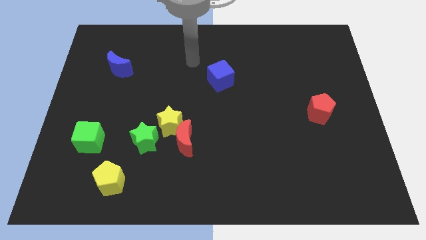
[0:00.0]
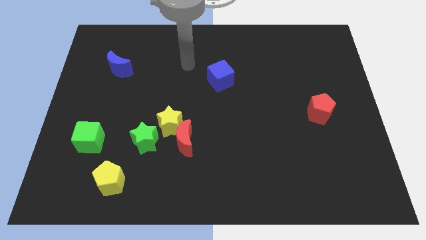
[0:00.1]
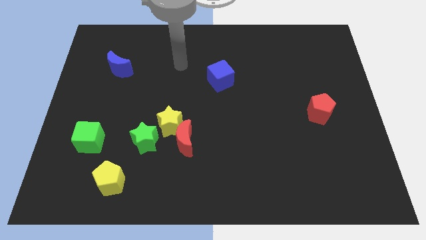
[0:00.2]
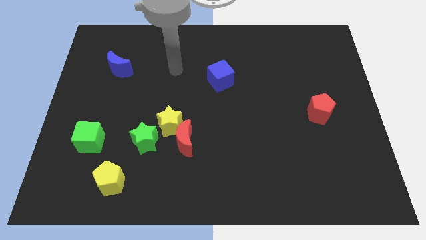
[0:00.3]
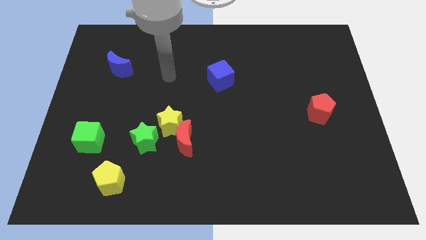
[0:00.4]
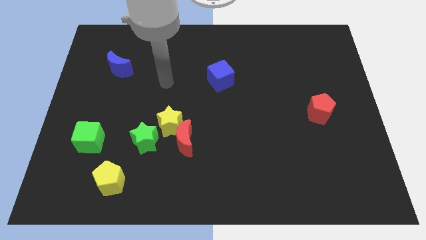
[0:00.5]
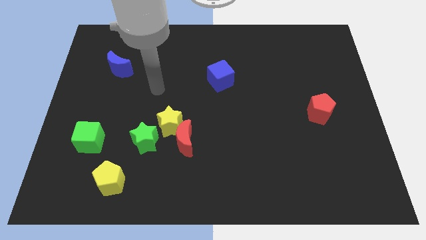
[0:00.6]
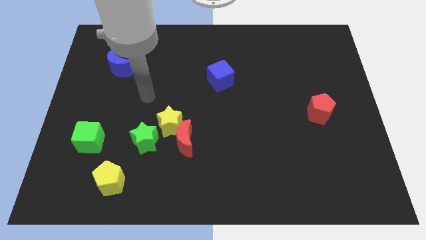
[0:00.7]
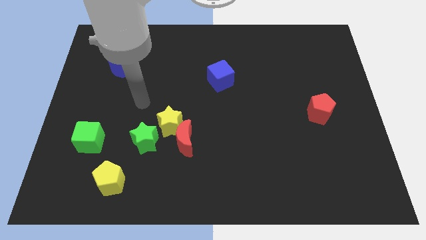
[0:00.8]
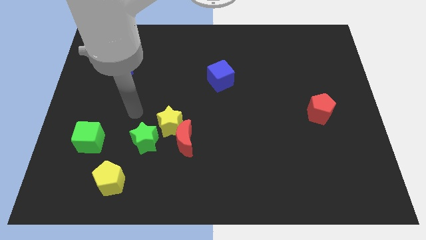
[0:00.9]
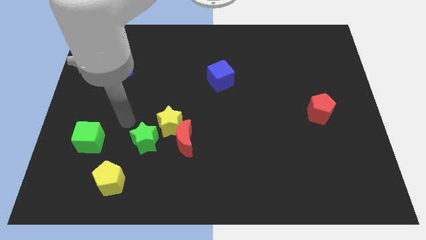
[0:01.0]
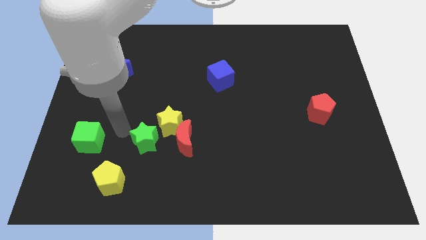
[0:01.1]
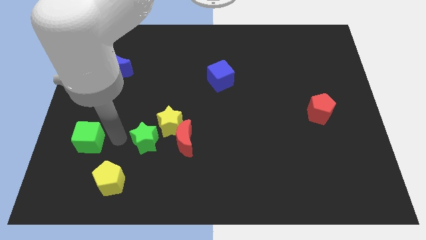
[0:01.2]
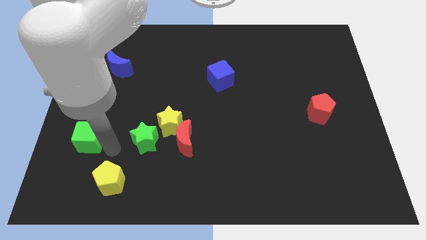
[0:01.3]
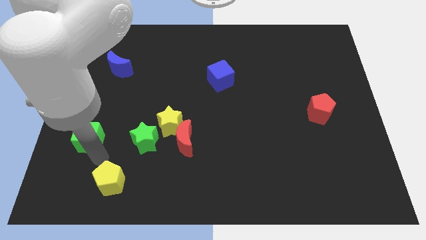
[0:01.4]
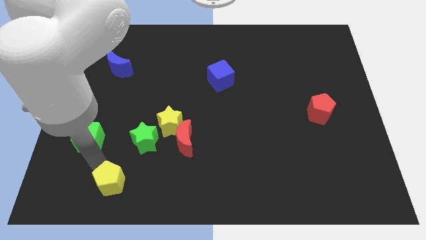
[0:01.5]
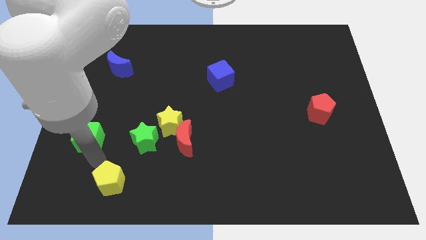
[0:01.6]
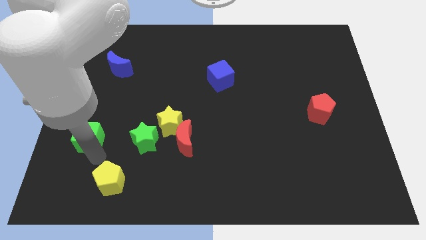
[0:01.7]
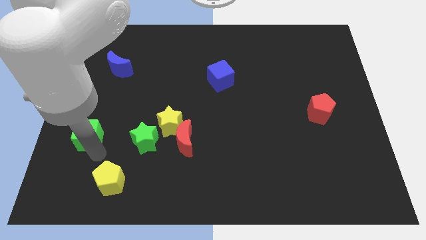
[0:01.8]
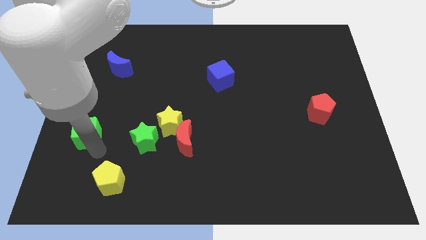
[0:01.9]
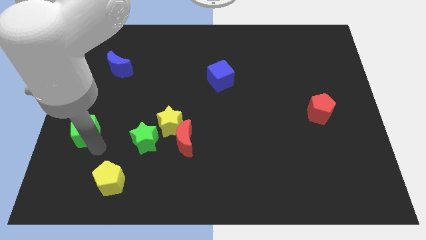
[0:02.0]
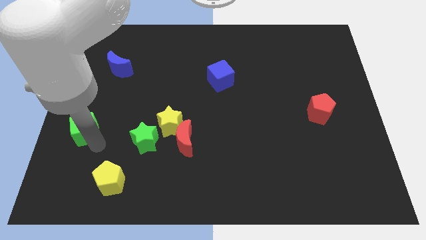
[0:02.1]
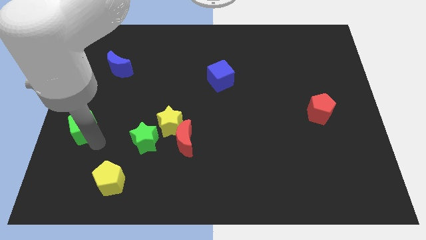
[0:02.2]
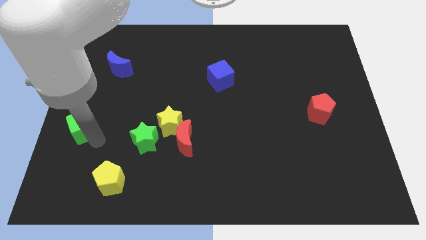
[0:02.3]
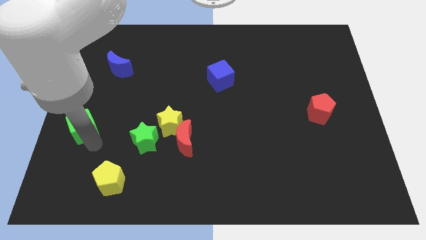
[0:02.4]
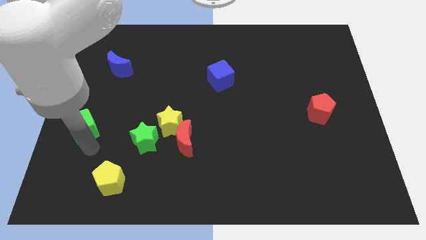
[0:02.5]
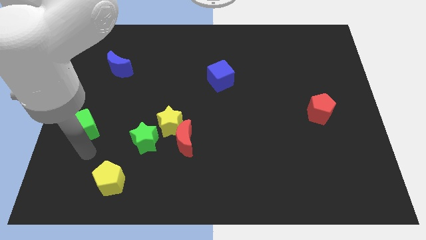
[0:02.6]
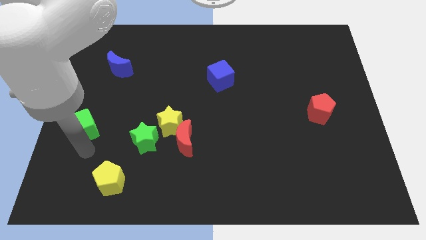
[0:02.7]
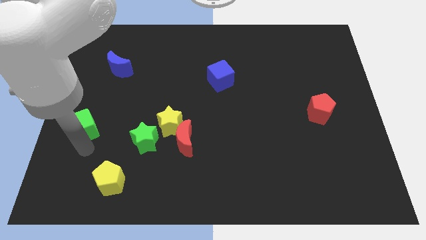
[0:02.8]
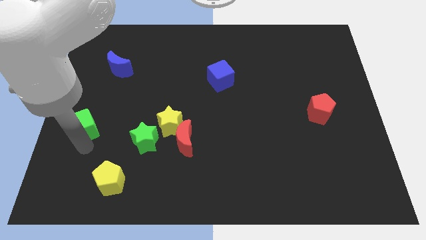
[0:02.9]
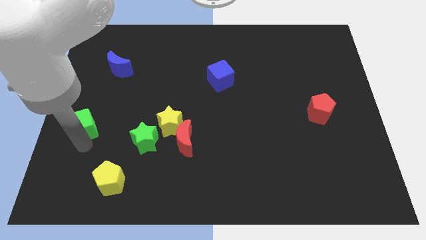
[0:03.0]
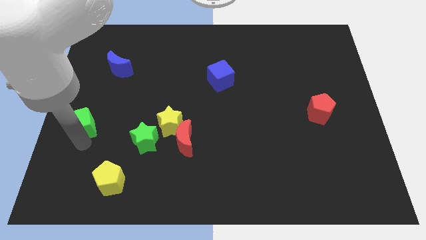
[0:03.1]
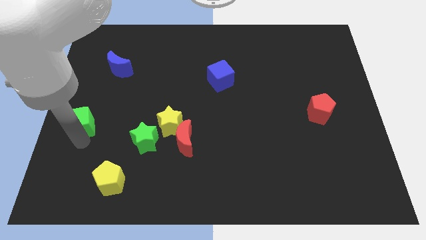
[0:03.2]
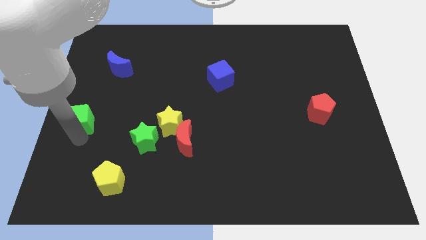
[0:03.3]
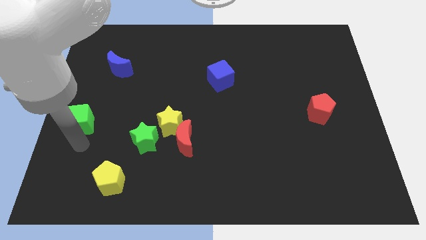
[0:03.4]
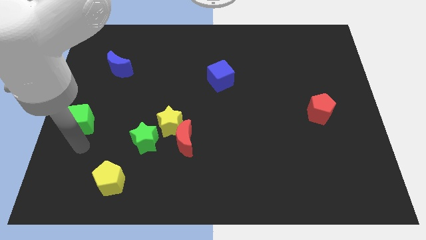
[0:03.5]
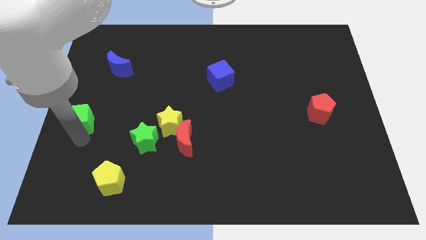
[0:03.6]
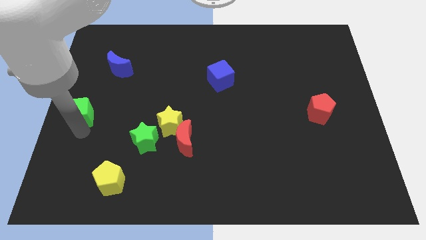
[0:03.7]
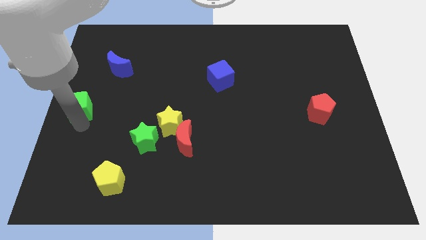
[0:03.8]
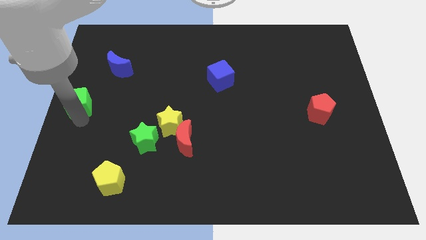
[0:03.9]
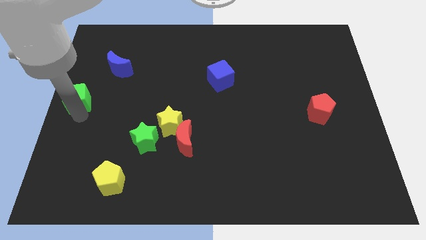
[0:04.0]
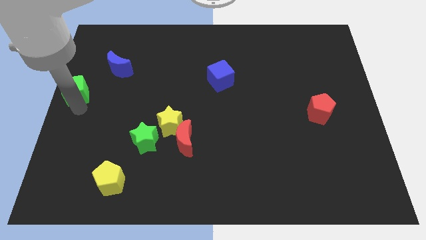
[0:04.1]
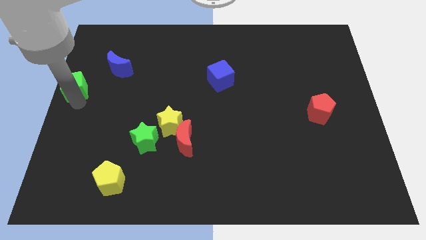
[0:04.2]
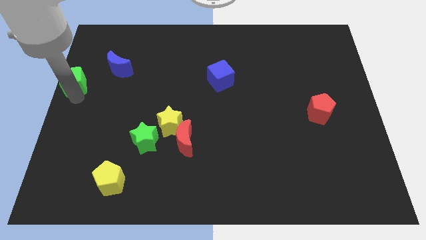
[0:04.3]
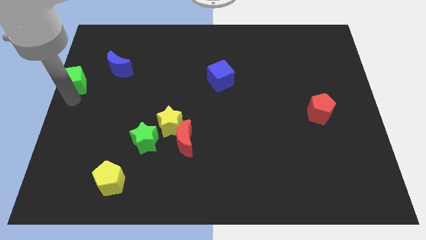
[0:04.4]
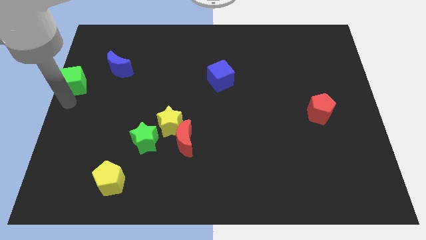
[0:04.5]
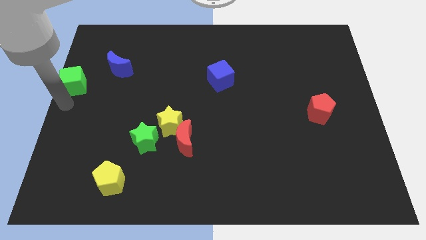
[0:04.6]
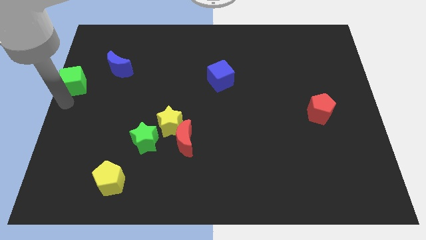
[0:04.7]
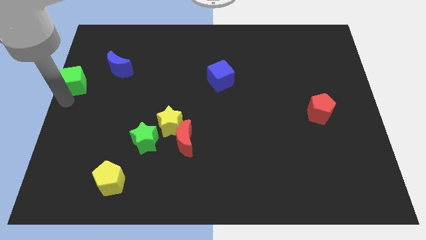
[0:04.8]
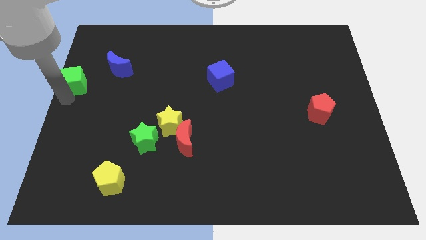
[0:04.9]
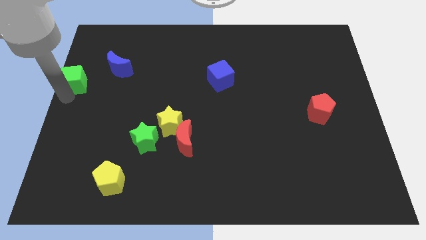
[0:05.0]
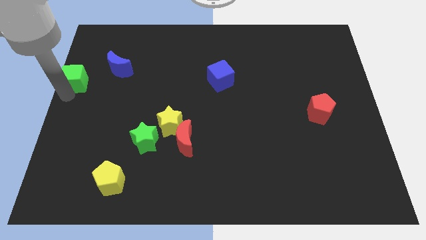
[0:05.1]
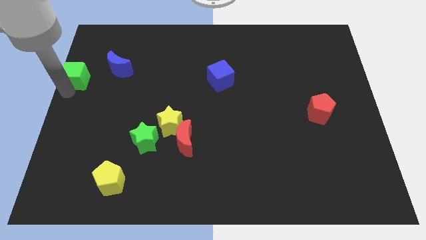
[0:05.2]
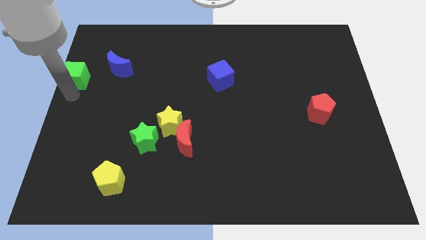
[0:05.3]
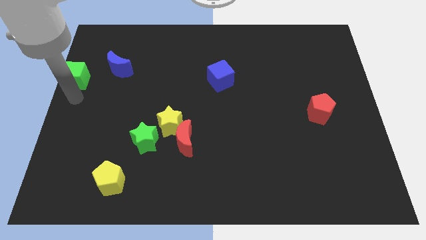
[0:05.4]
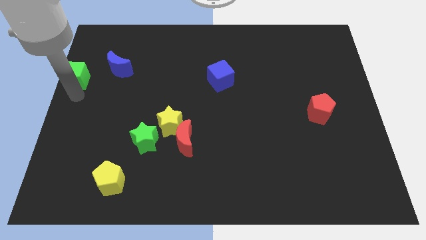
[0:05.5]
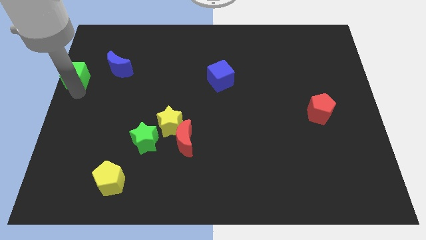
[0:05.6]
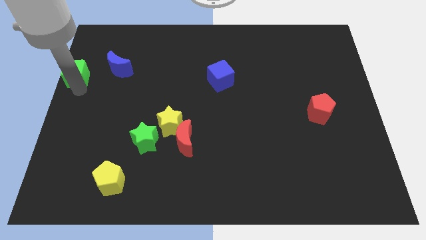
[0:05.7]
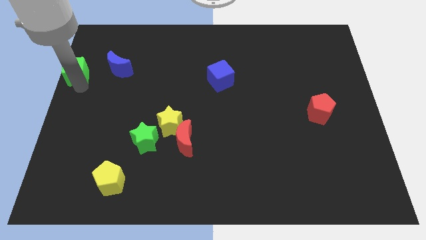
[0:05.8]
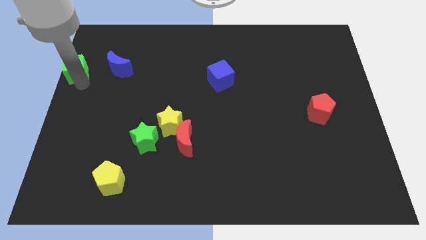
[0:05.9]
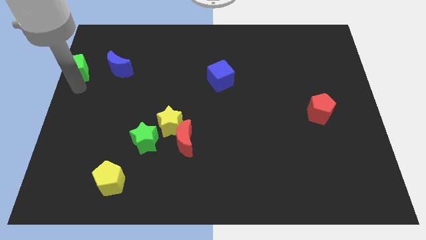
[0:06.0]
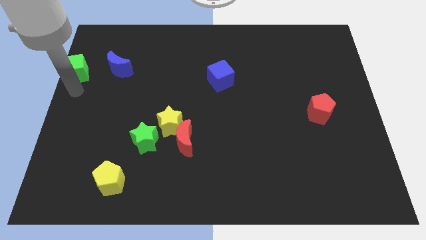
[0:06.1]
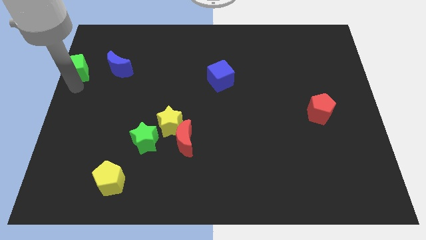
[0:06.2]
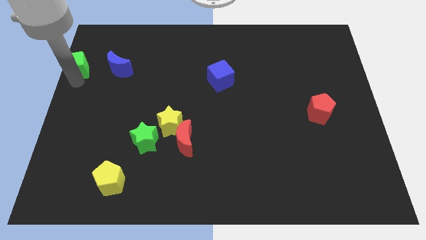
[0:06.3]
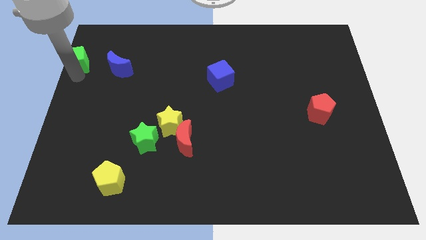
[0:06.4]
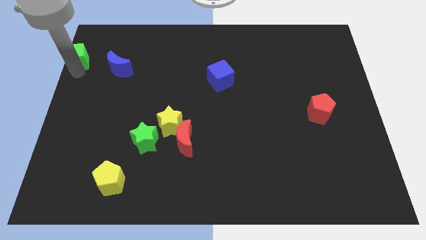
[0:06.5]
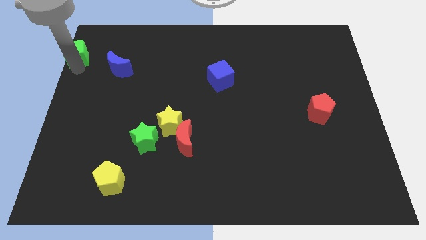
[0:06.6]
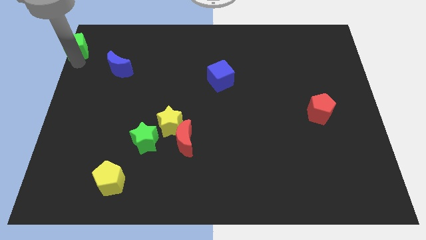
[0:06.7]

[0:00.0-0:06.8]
push the green cube to the top left corner

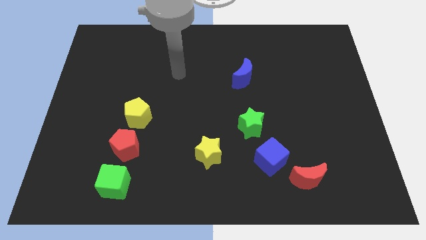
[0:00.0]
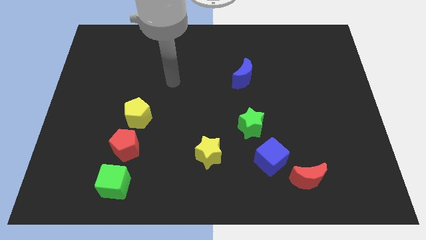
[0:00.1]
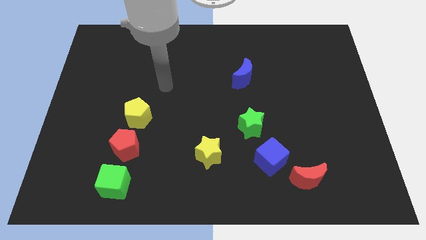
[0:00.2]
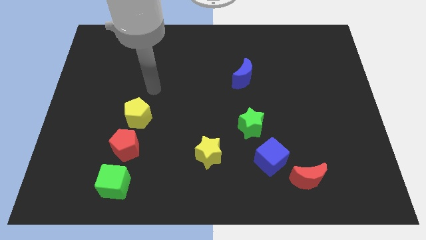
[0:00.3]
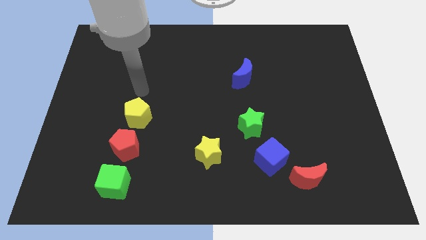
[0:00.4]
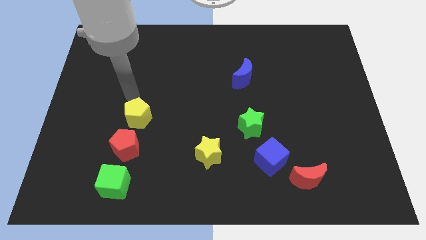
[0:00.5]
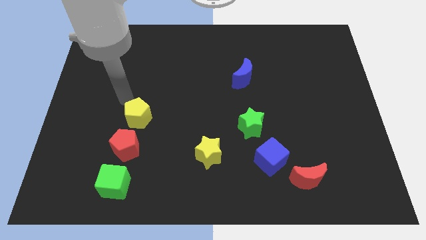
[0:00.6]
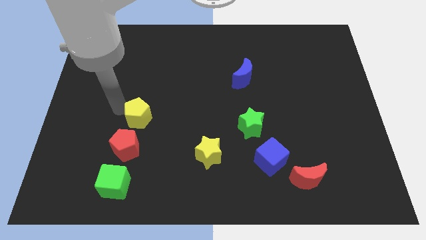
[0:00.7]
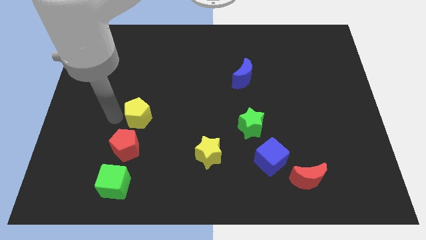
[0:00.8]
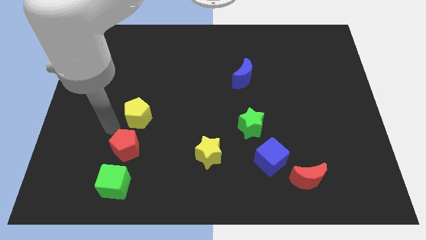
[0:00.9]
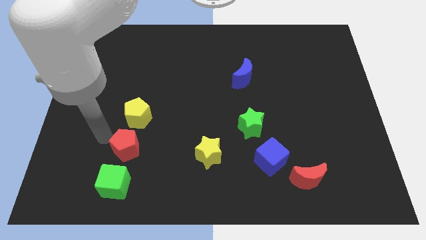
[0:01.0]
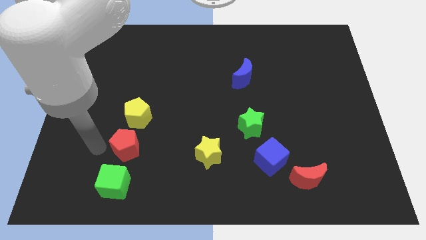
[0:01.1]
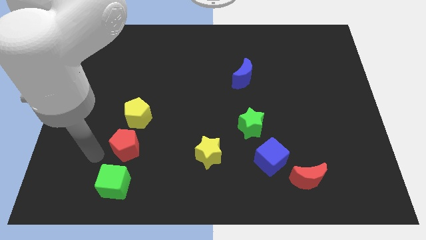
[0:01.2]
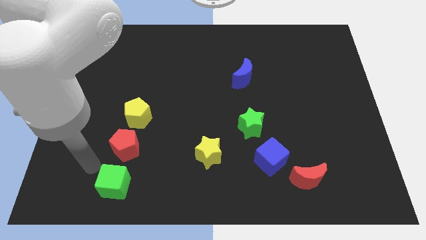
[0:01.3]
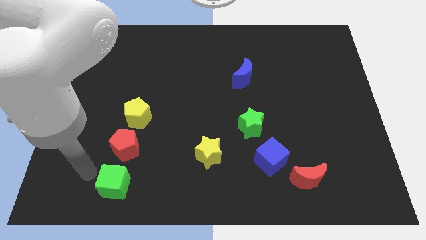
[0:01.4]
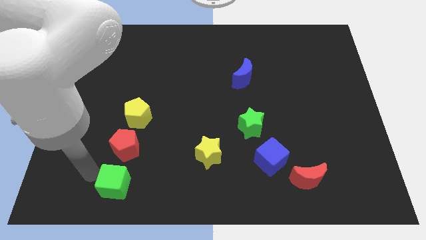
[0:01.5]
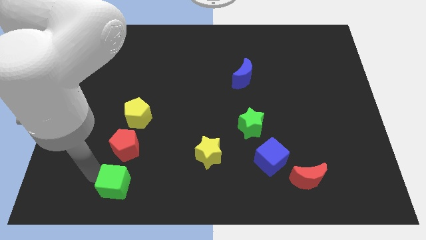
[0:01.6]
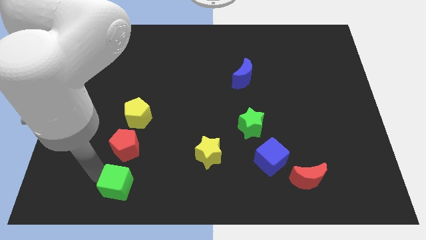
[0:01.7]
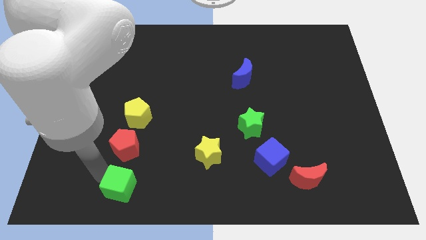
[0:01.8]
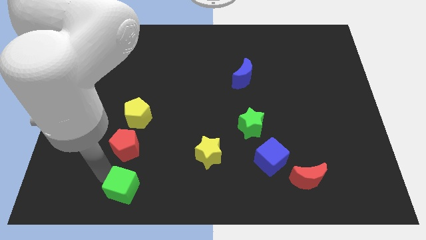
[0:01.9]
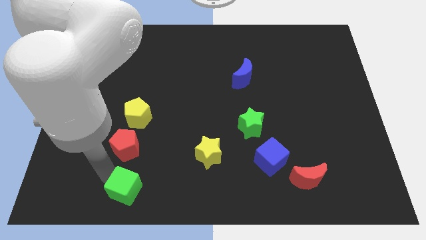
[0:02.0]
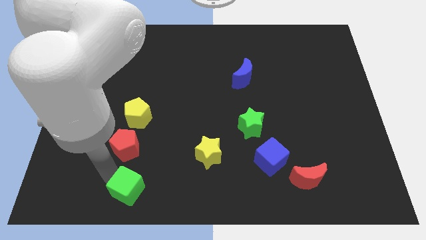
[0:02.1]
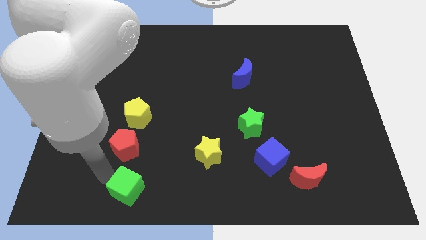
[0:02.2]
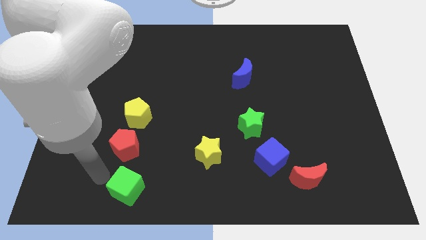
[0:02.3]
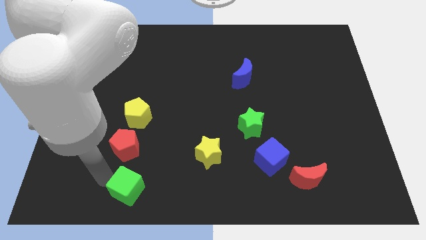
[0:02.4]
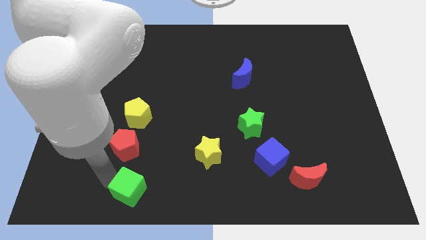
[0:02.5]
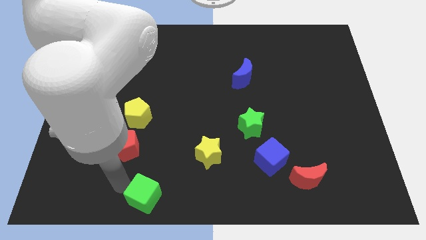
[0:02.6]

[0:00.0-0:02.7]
push the green cube to the bottom
